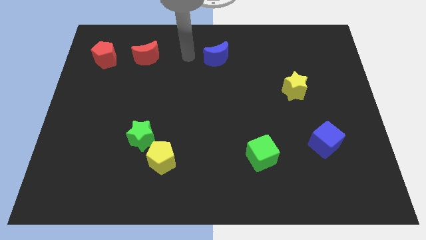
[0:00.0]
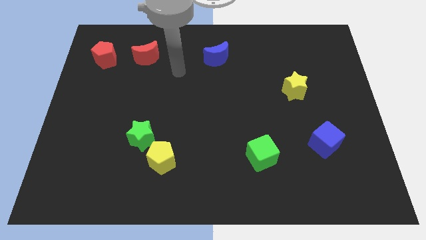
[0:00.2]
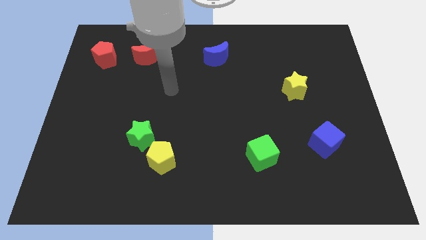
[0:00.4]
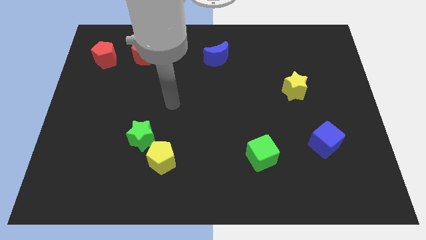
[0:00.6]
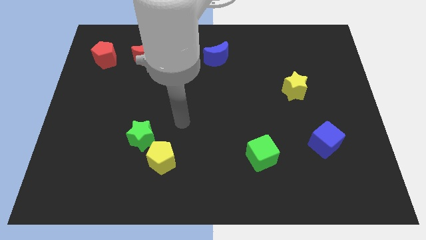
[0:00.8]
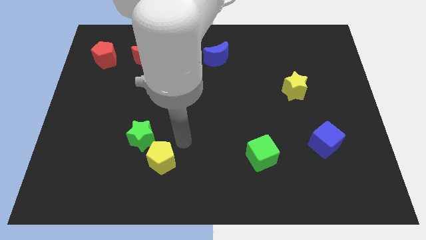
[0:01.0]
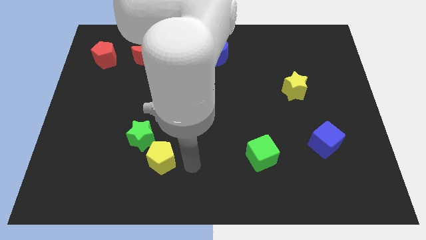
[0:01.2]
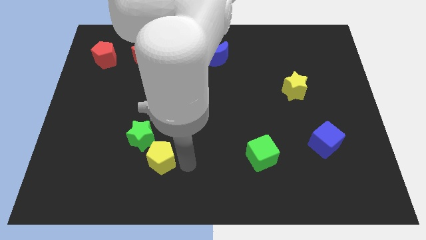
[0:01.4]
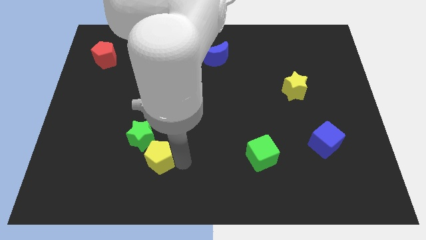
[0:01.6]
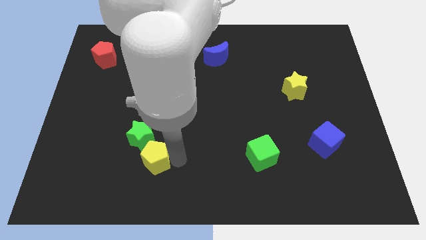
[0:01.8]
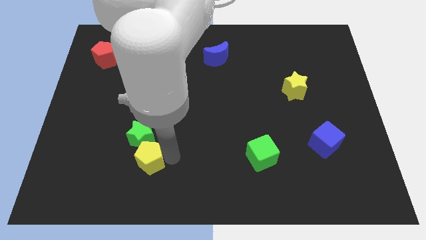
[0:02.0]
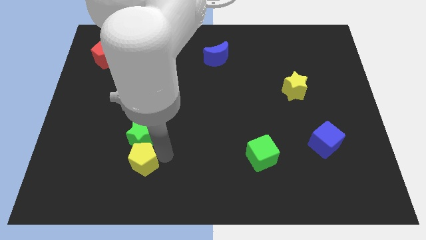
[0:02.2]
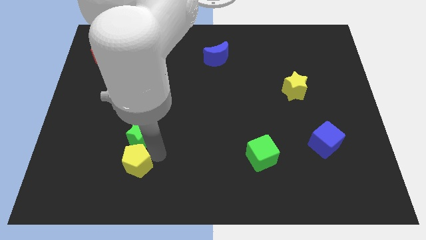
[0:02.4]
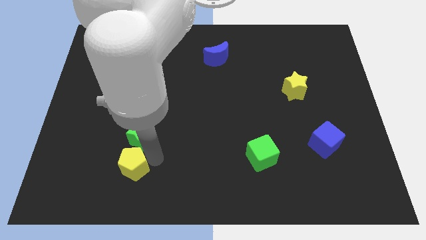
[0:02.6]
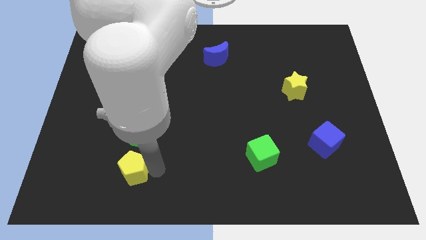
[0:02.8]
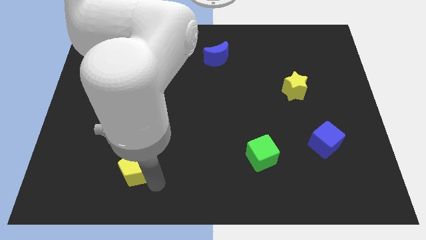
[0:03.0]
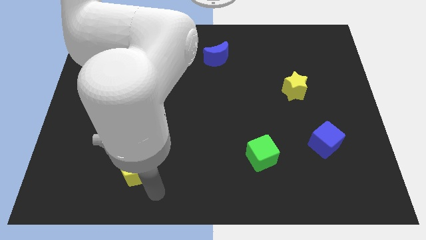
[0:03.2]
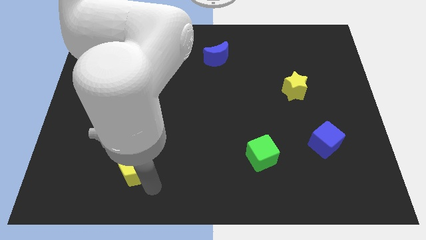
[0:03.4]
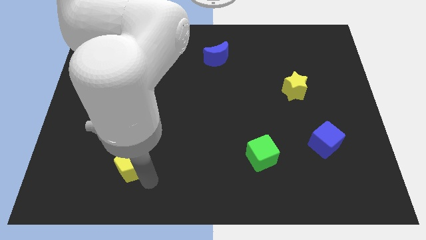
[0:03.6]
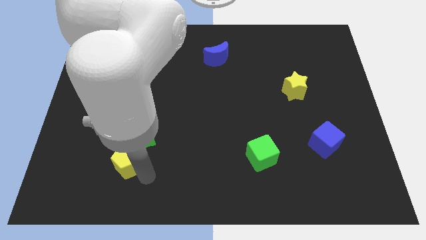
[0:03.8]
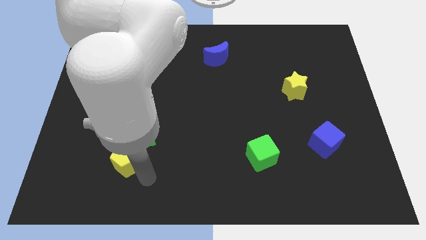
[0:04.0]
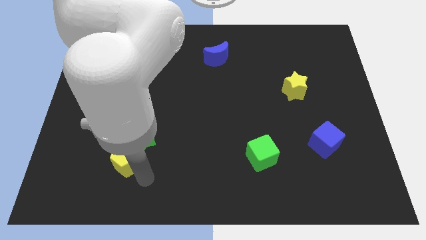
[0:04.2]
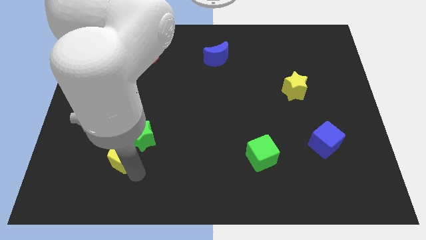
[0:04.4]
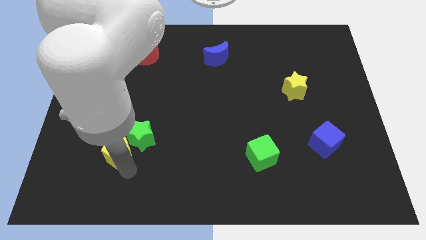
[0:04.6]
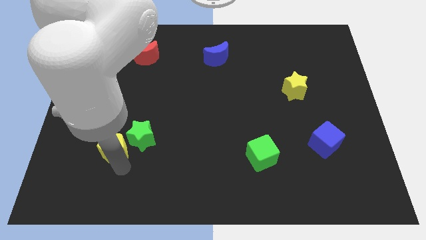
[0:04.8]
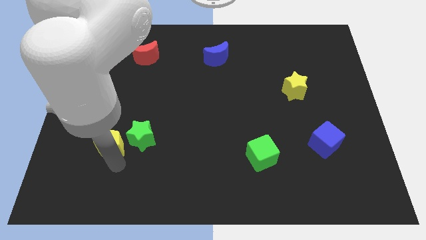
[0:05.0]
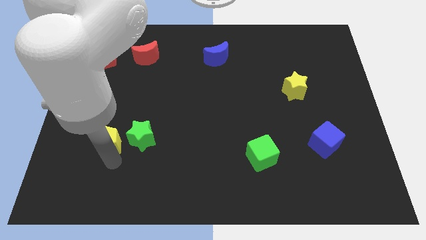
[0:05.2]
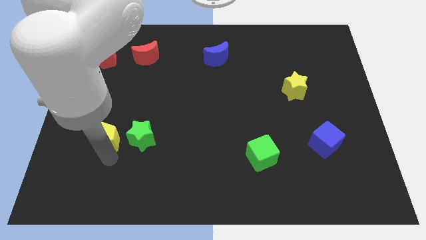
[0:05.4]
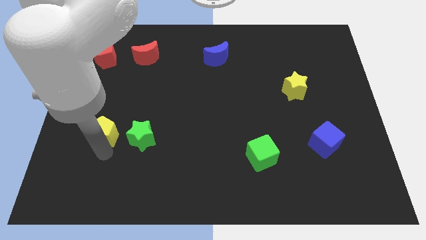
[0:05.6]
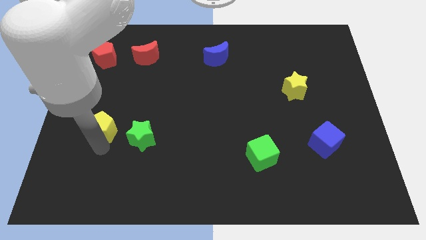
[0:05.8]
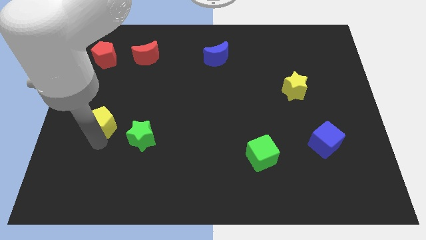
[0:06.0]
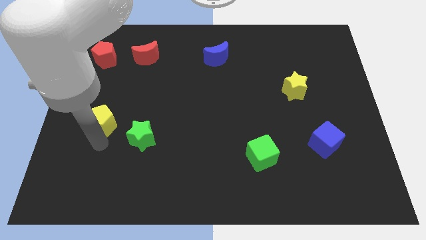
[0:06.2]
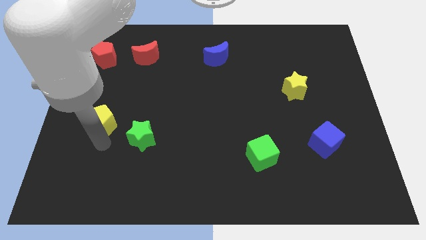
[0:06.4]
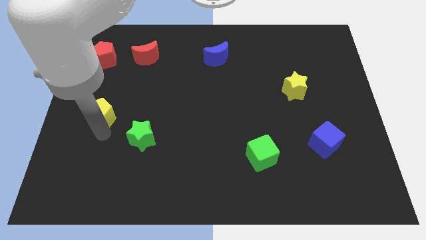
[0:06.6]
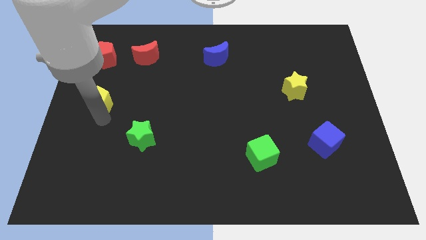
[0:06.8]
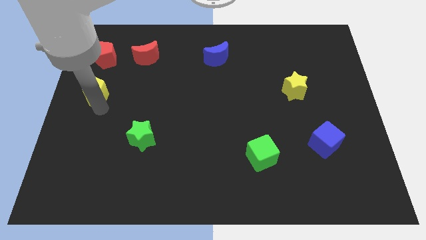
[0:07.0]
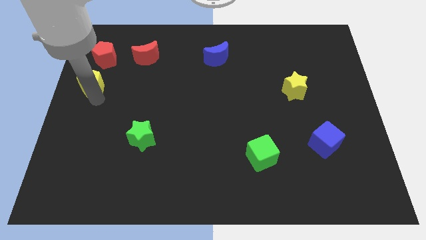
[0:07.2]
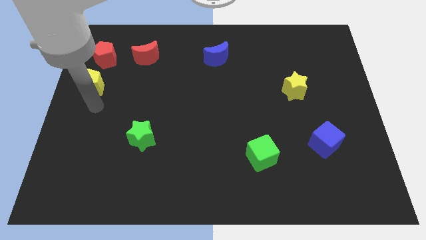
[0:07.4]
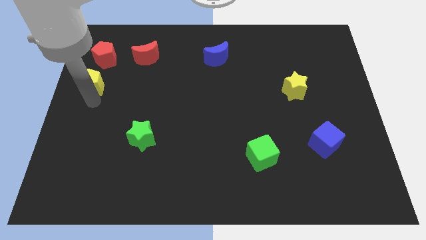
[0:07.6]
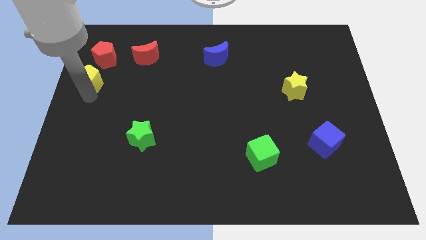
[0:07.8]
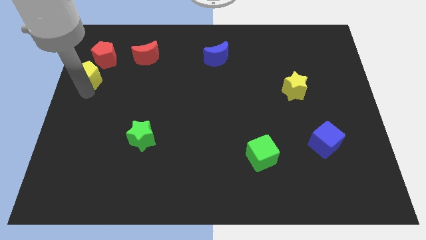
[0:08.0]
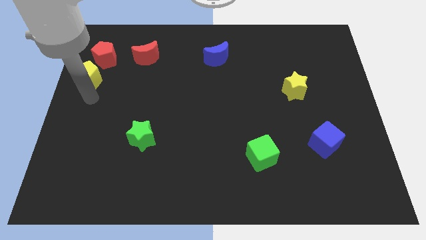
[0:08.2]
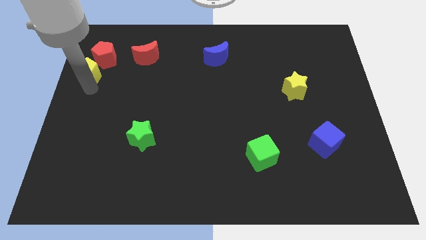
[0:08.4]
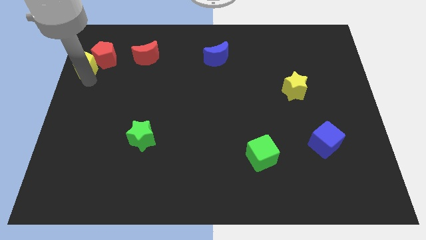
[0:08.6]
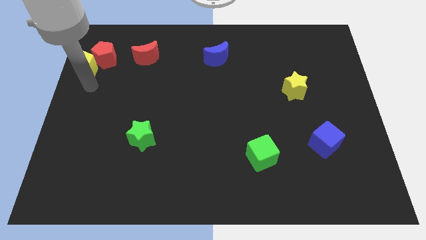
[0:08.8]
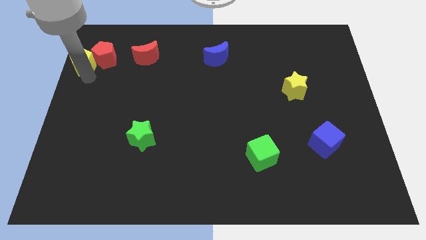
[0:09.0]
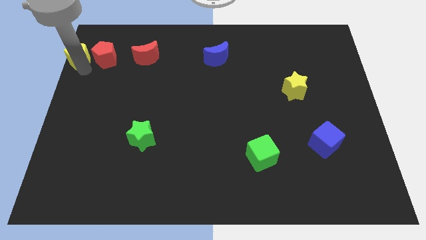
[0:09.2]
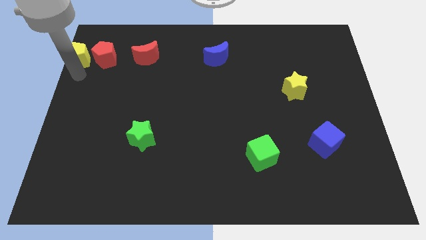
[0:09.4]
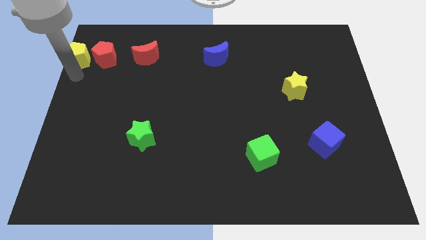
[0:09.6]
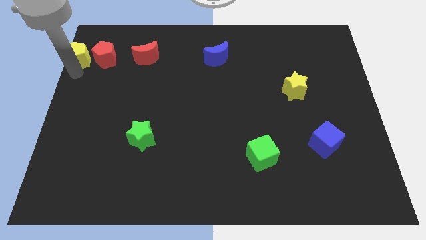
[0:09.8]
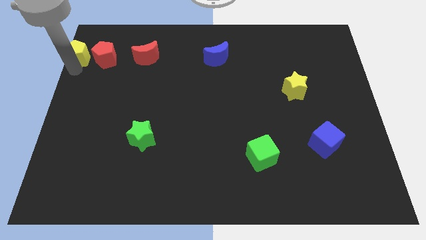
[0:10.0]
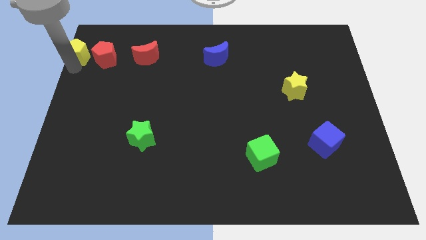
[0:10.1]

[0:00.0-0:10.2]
move the yellow pentagon to the top left of the board

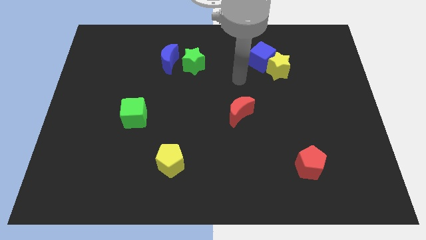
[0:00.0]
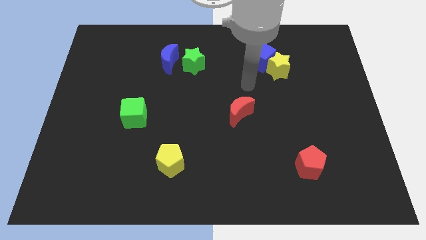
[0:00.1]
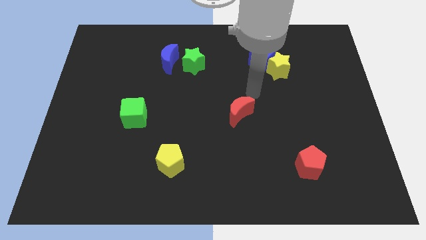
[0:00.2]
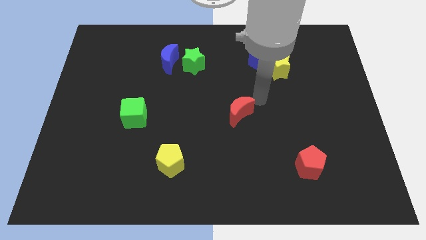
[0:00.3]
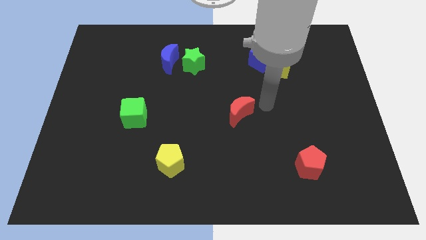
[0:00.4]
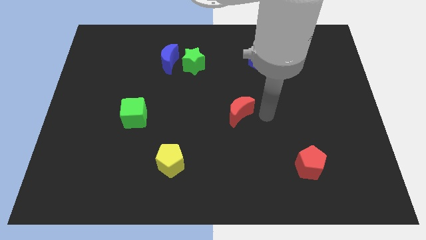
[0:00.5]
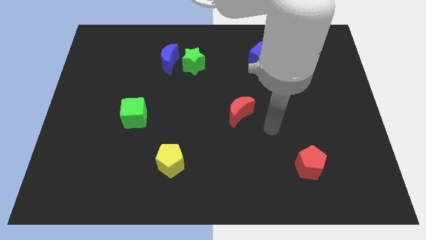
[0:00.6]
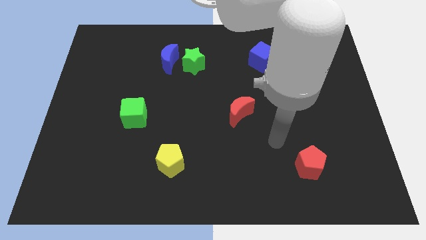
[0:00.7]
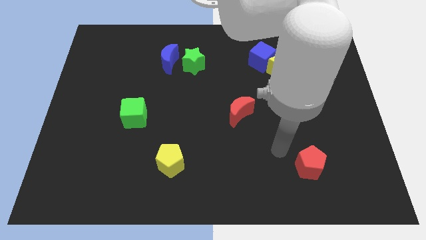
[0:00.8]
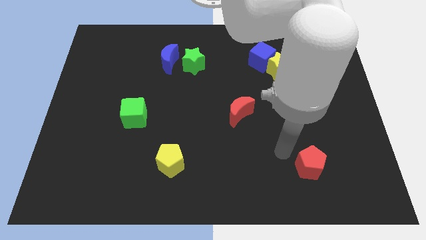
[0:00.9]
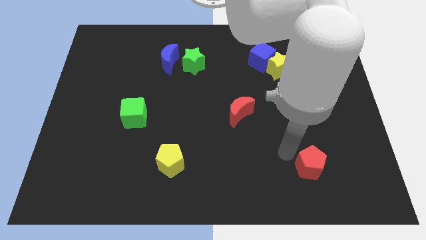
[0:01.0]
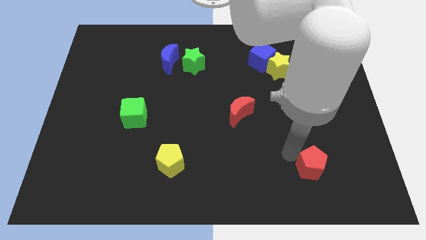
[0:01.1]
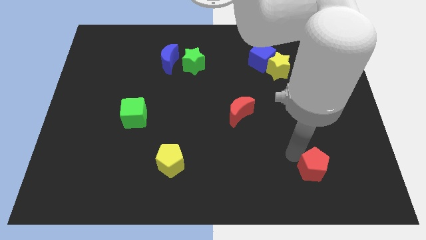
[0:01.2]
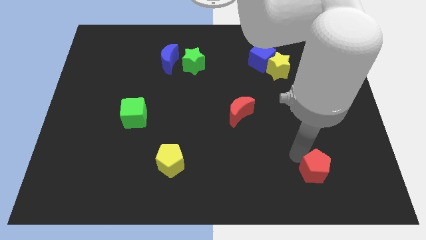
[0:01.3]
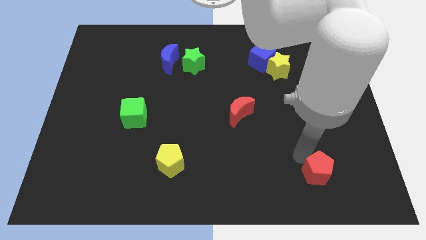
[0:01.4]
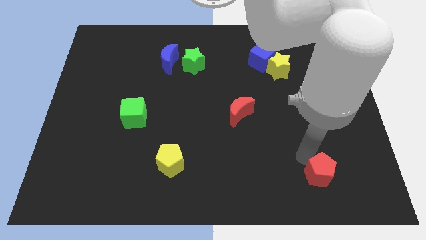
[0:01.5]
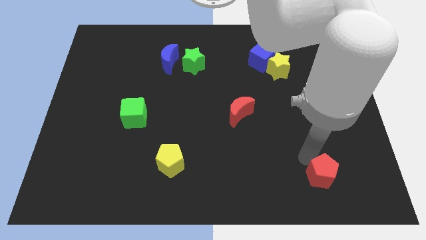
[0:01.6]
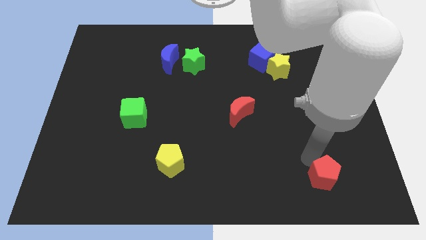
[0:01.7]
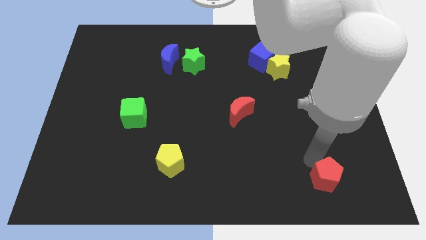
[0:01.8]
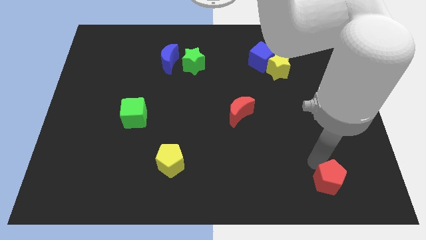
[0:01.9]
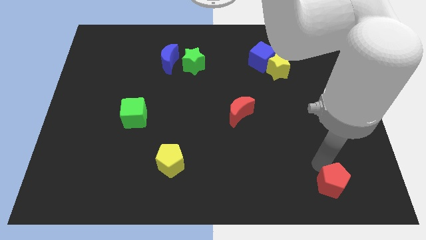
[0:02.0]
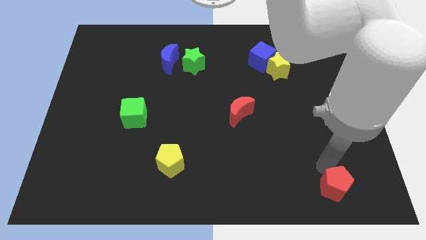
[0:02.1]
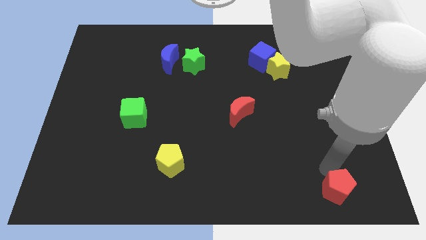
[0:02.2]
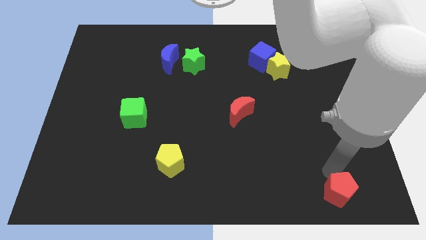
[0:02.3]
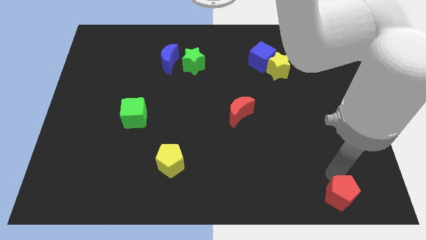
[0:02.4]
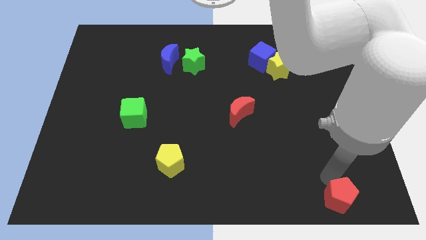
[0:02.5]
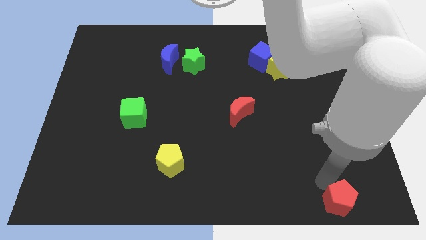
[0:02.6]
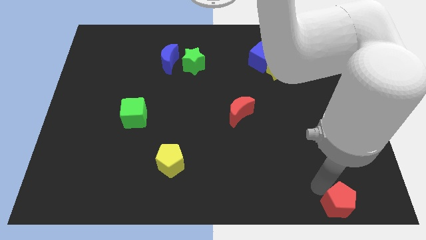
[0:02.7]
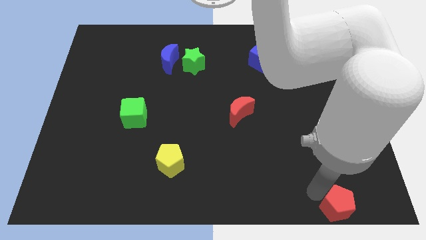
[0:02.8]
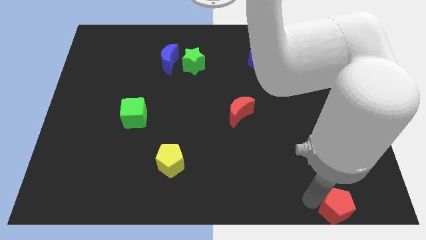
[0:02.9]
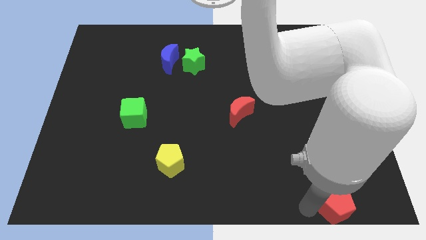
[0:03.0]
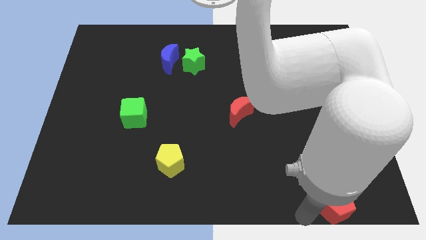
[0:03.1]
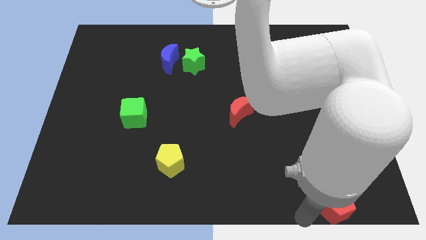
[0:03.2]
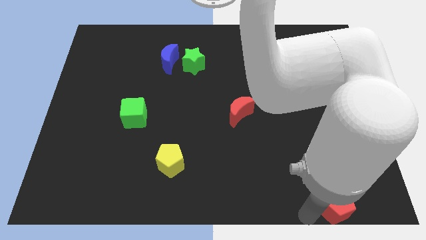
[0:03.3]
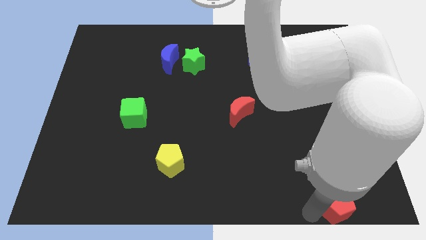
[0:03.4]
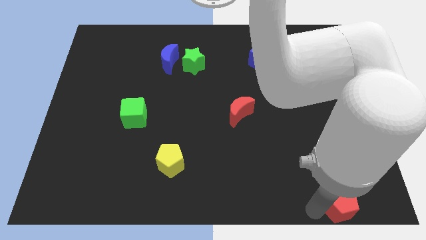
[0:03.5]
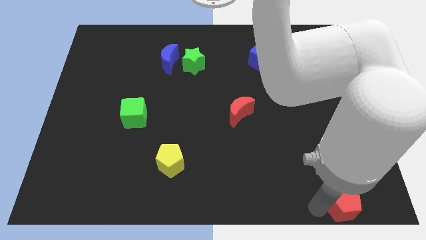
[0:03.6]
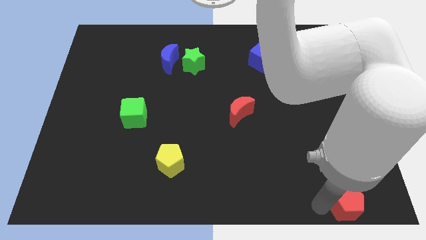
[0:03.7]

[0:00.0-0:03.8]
move the red pentagon to the bottom right of the board
